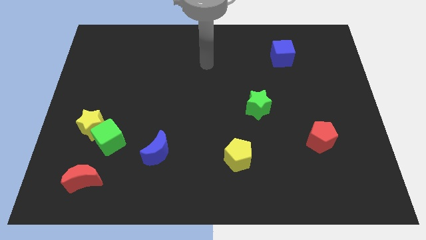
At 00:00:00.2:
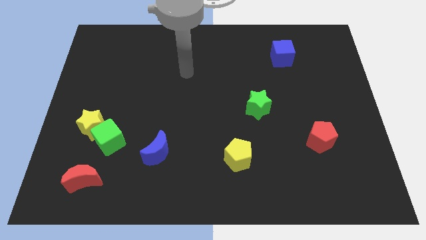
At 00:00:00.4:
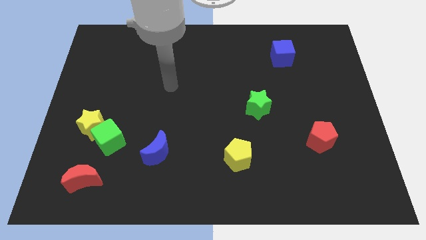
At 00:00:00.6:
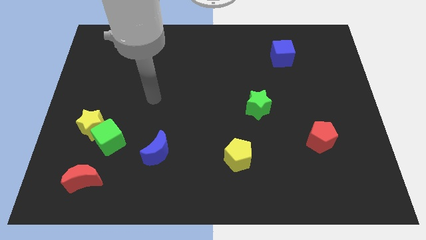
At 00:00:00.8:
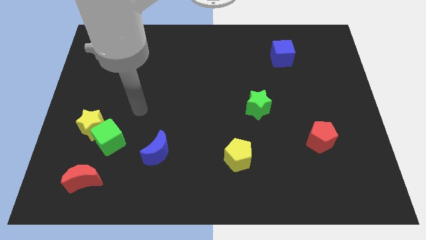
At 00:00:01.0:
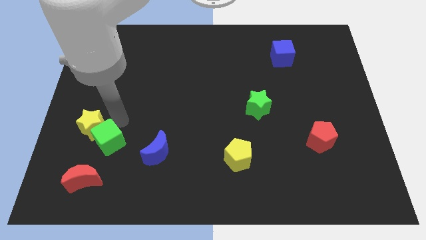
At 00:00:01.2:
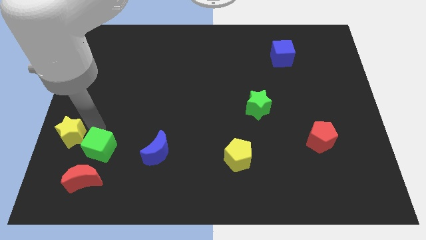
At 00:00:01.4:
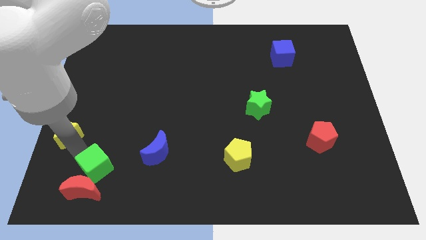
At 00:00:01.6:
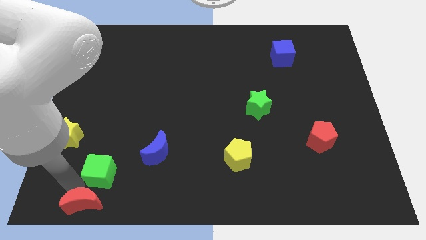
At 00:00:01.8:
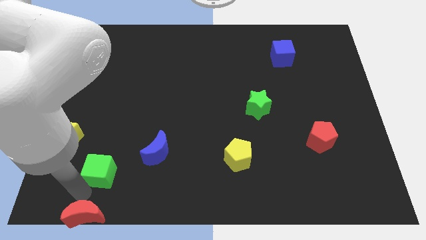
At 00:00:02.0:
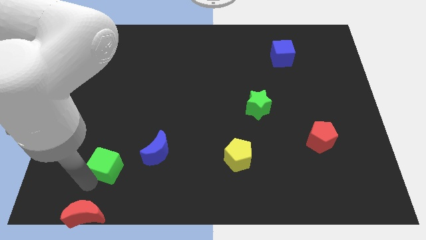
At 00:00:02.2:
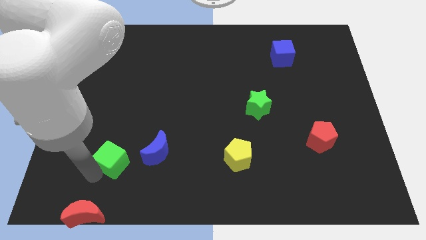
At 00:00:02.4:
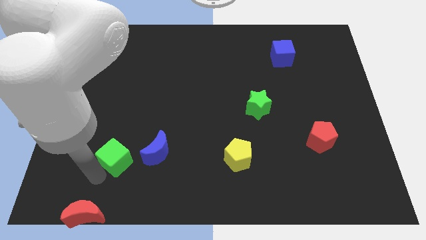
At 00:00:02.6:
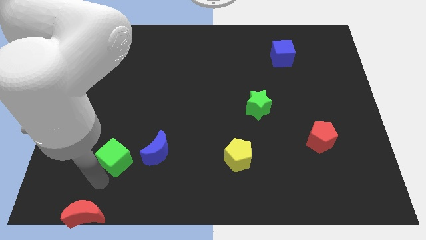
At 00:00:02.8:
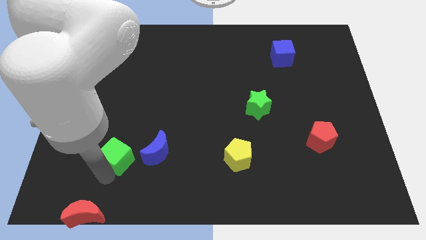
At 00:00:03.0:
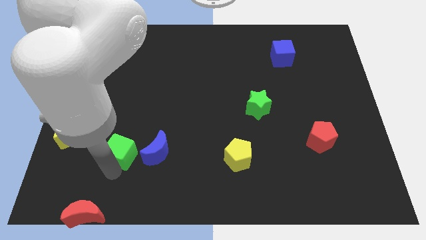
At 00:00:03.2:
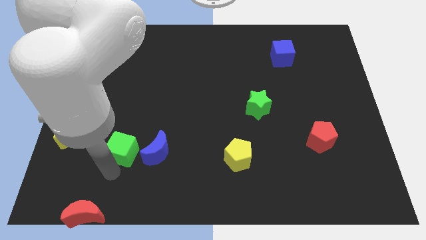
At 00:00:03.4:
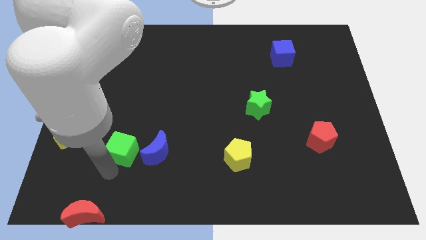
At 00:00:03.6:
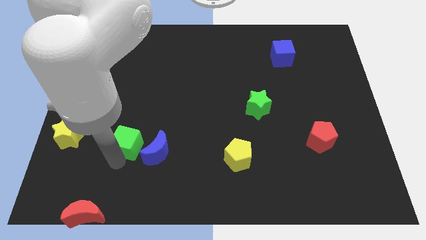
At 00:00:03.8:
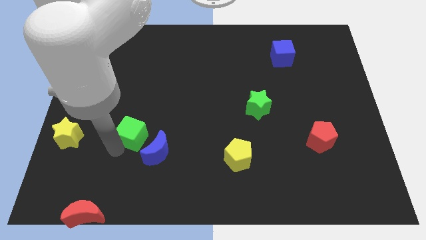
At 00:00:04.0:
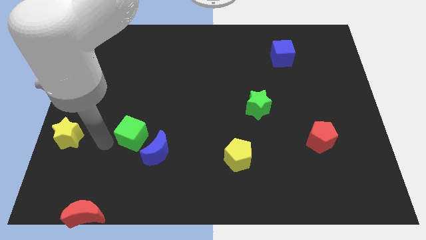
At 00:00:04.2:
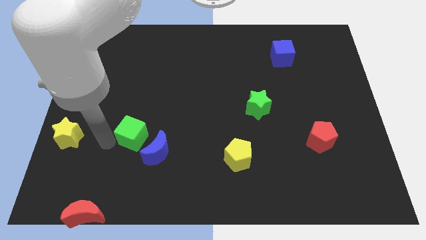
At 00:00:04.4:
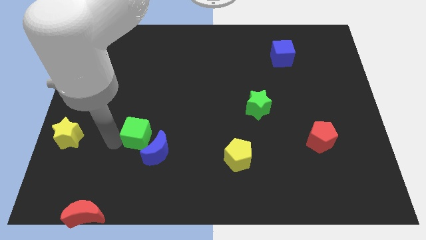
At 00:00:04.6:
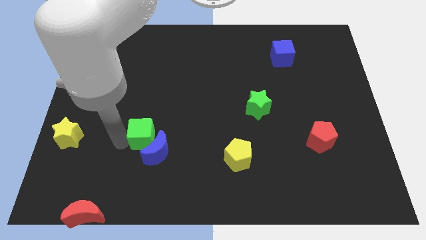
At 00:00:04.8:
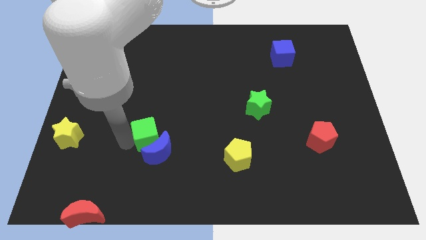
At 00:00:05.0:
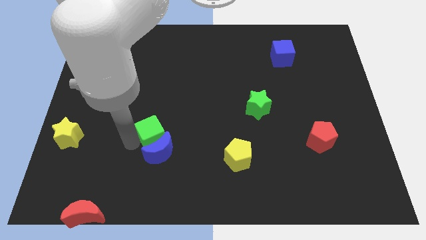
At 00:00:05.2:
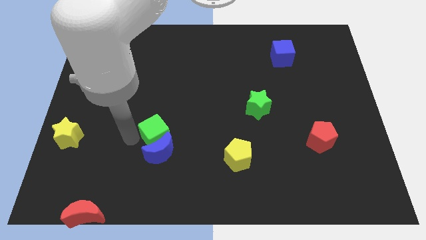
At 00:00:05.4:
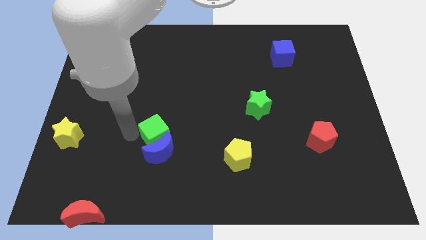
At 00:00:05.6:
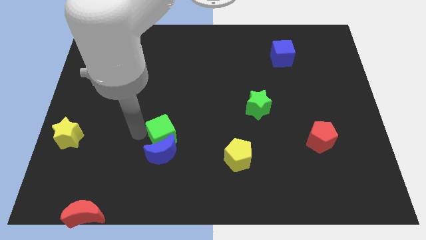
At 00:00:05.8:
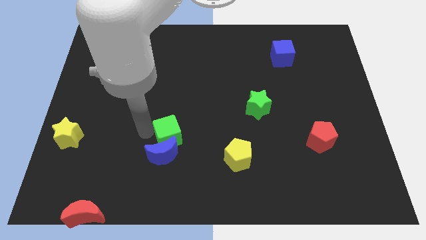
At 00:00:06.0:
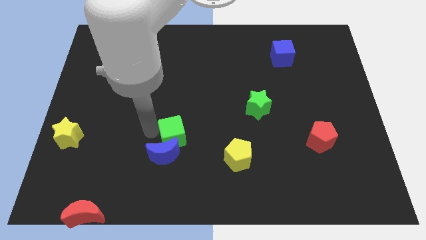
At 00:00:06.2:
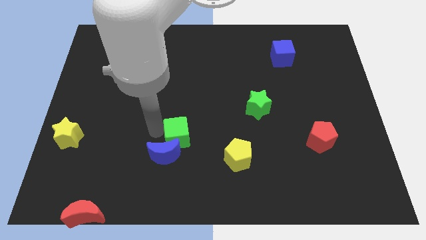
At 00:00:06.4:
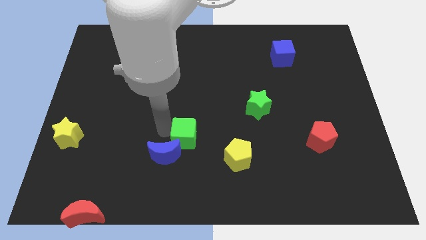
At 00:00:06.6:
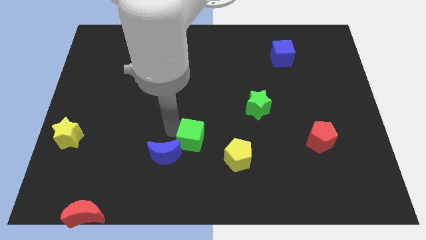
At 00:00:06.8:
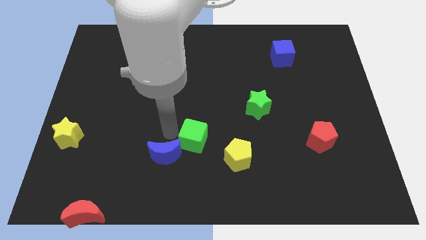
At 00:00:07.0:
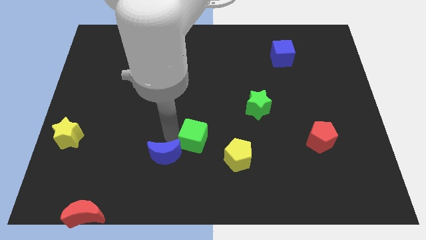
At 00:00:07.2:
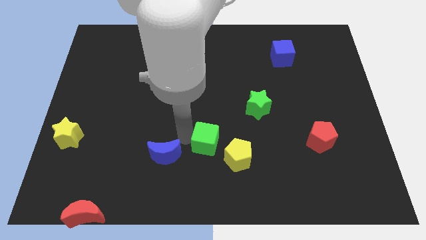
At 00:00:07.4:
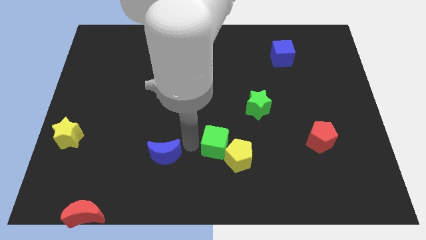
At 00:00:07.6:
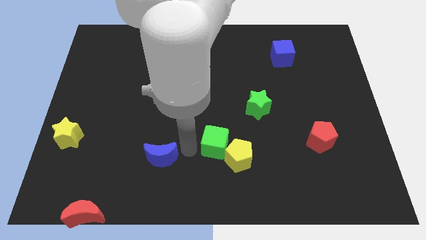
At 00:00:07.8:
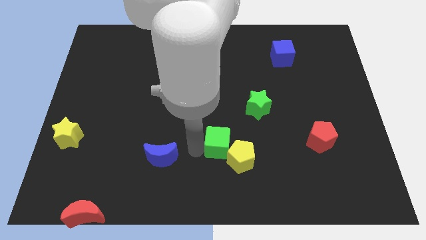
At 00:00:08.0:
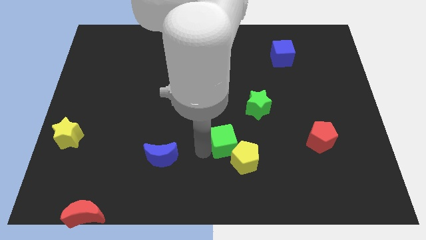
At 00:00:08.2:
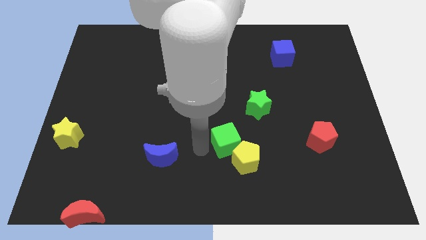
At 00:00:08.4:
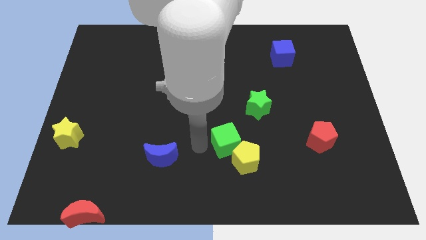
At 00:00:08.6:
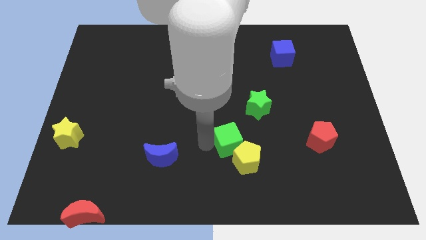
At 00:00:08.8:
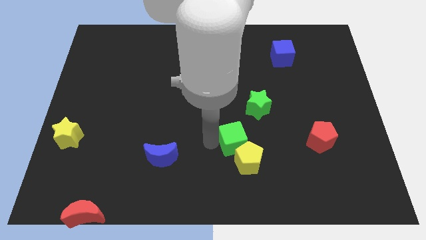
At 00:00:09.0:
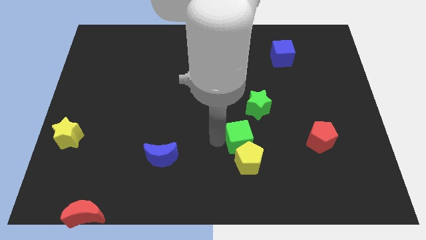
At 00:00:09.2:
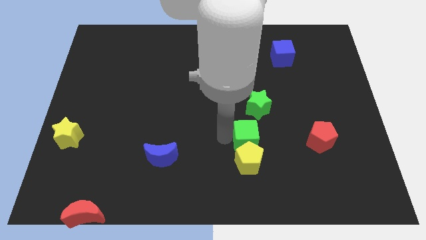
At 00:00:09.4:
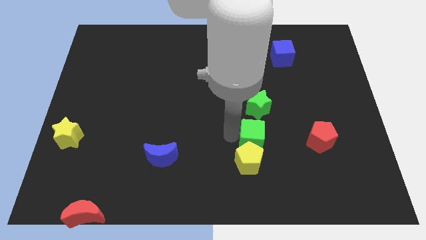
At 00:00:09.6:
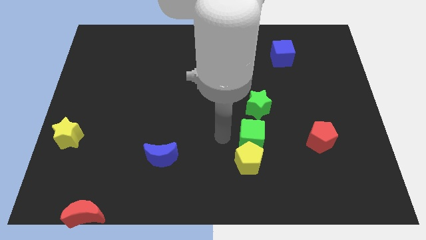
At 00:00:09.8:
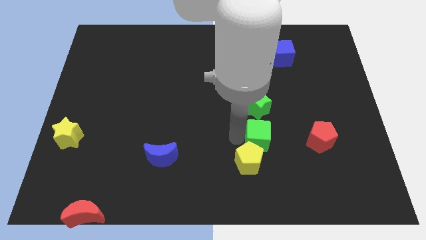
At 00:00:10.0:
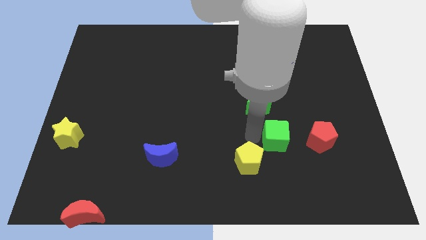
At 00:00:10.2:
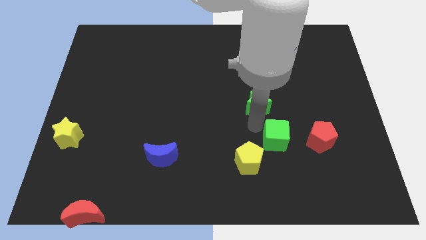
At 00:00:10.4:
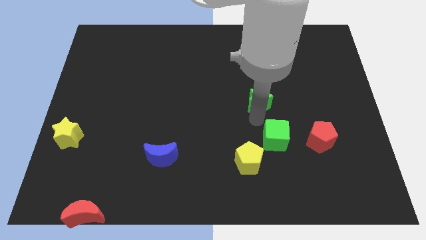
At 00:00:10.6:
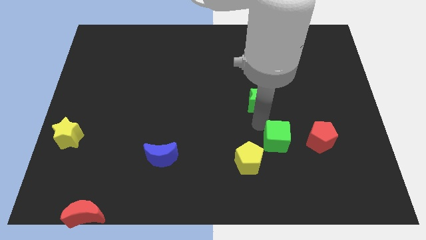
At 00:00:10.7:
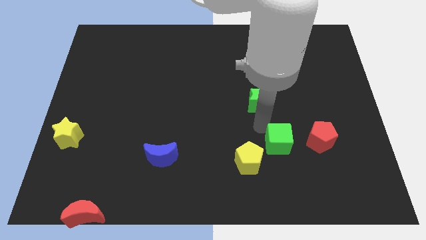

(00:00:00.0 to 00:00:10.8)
push the green cube right of the yellow pentagon

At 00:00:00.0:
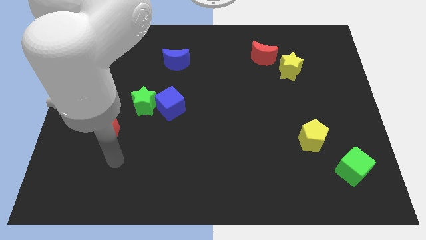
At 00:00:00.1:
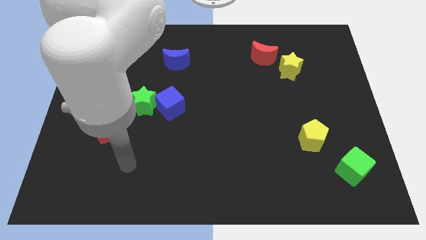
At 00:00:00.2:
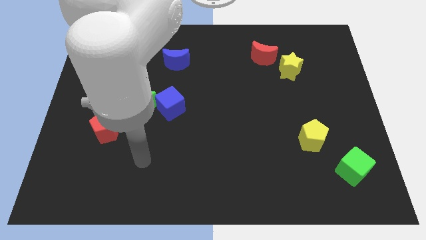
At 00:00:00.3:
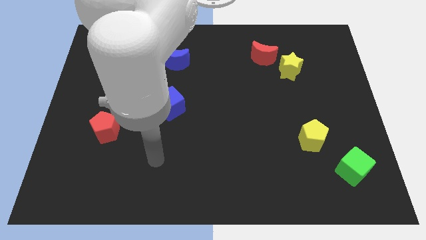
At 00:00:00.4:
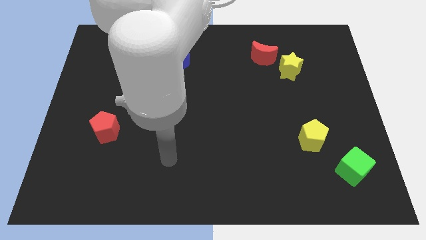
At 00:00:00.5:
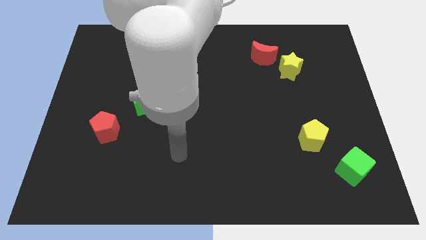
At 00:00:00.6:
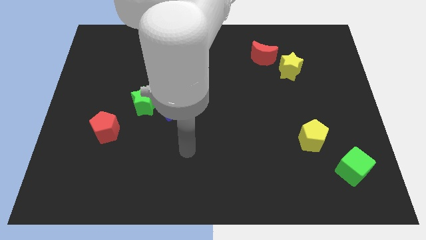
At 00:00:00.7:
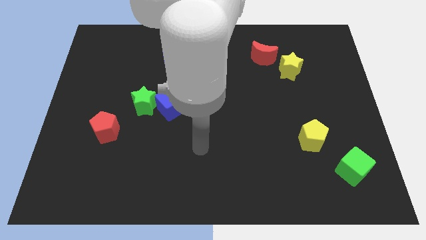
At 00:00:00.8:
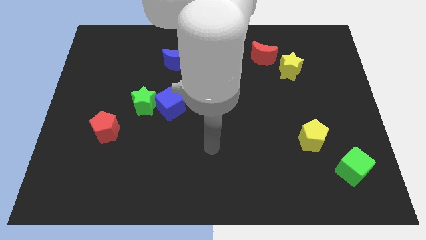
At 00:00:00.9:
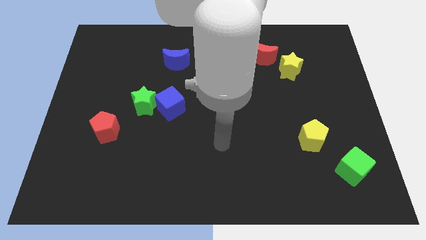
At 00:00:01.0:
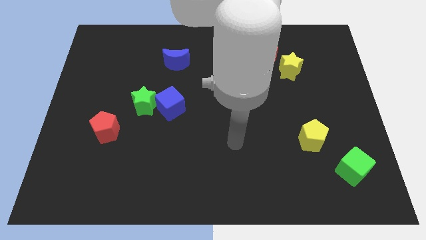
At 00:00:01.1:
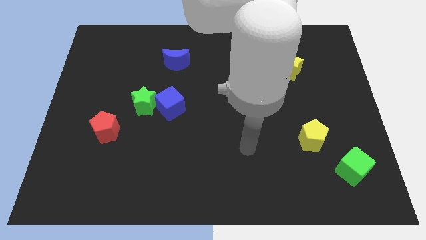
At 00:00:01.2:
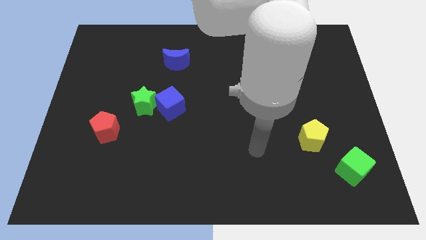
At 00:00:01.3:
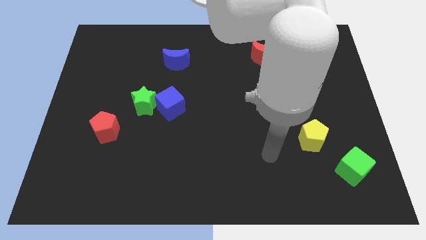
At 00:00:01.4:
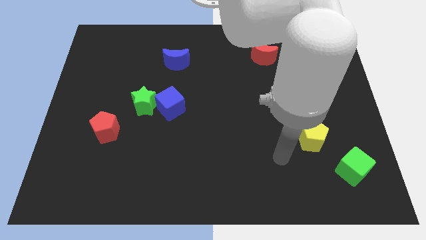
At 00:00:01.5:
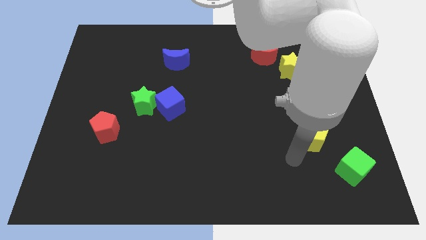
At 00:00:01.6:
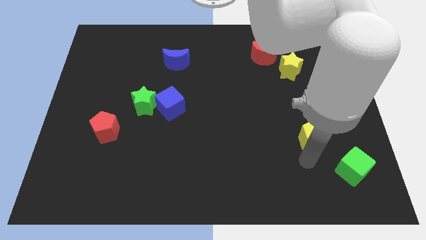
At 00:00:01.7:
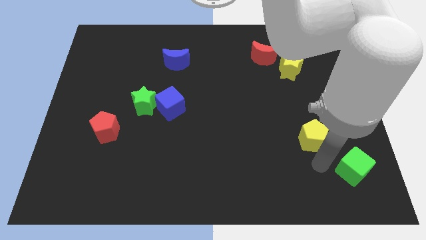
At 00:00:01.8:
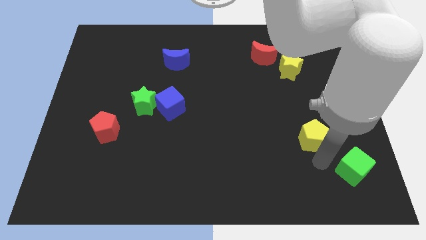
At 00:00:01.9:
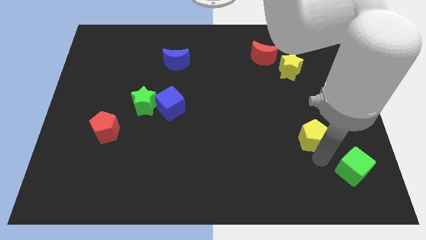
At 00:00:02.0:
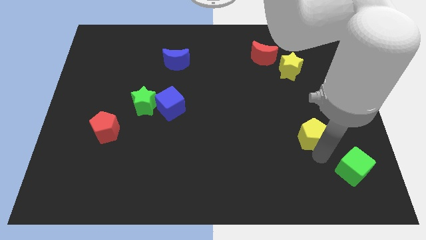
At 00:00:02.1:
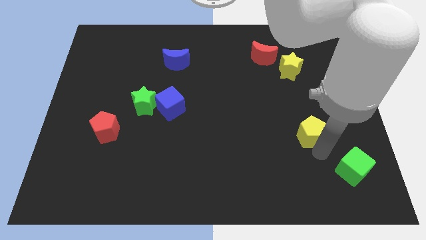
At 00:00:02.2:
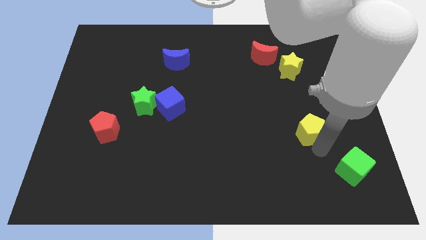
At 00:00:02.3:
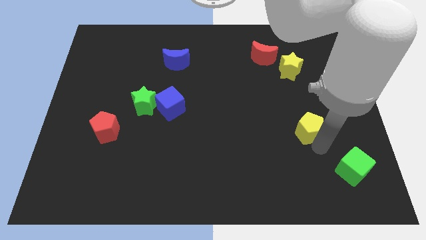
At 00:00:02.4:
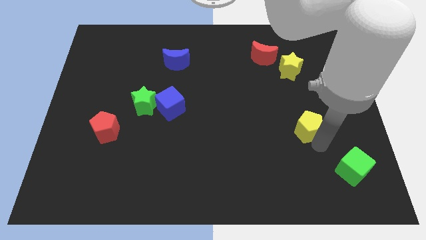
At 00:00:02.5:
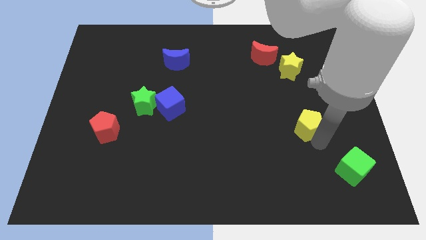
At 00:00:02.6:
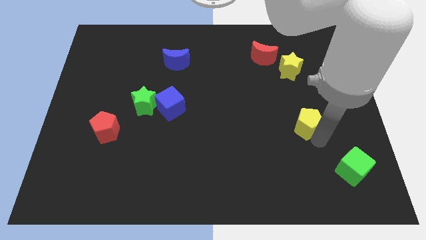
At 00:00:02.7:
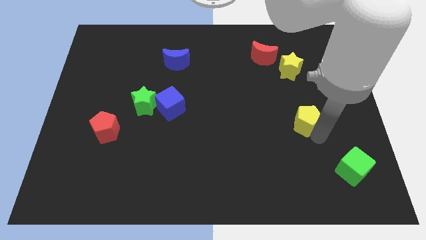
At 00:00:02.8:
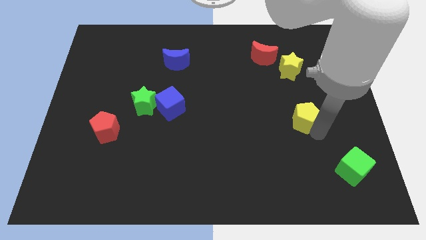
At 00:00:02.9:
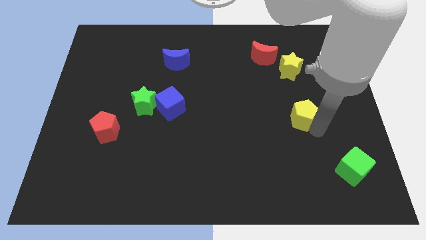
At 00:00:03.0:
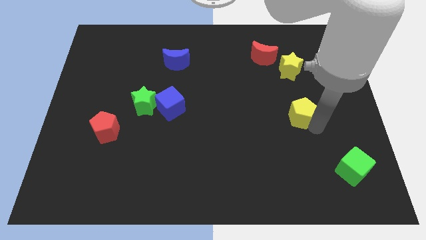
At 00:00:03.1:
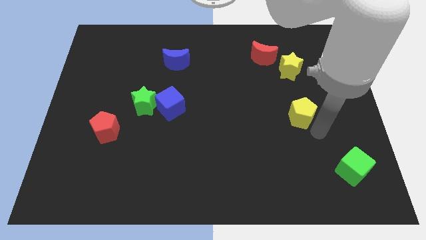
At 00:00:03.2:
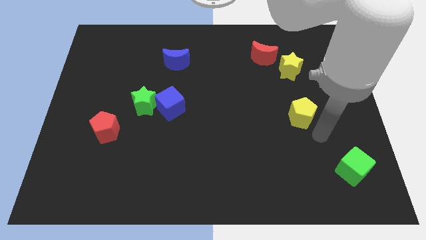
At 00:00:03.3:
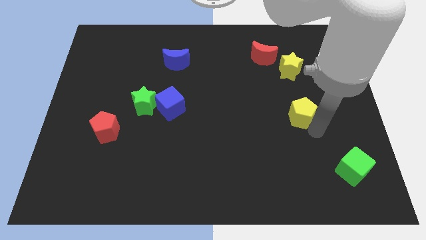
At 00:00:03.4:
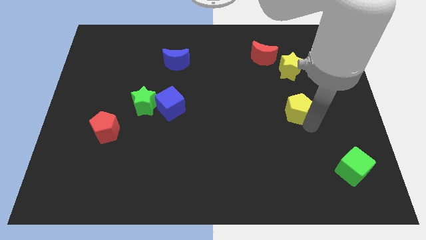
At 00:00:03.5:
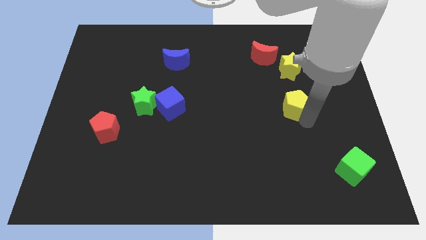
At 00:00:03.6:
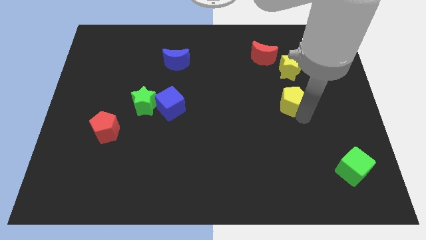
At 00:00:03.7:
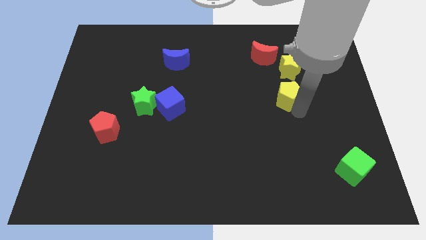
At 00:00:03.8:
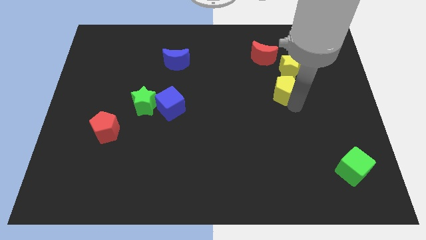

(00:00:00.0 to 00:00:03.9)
slide the yellow pentagon diagonally down and to the left of the yellow star
